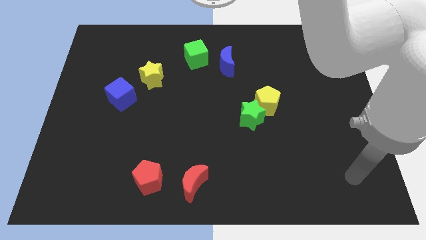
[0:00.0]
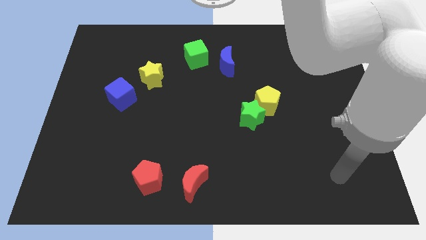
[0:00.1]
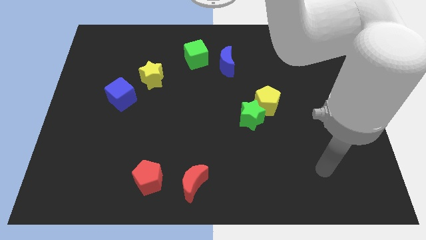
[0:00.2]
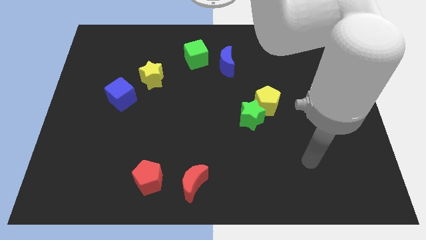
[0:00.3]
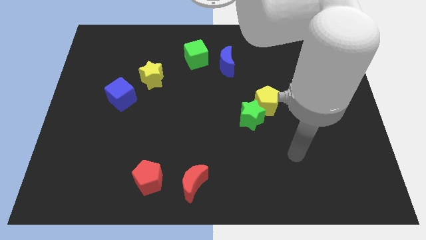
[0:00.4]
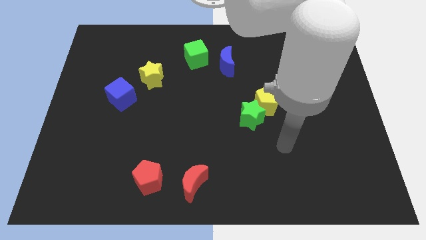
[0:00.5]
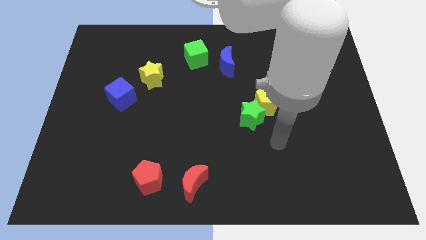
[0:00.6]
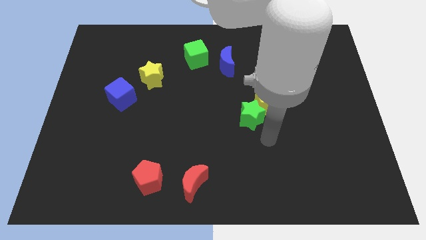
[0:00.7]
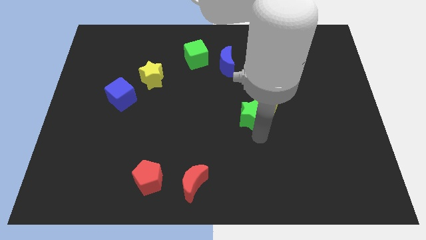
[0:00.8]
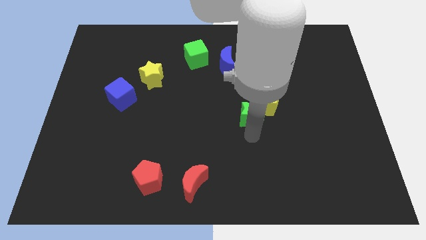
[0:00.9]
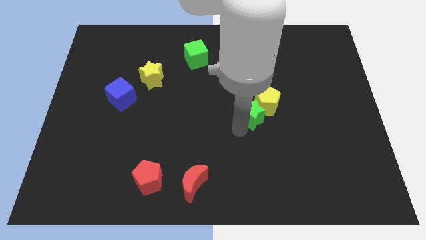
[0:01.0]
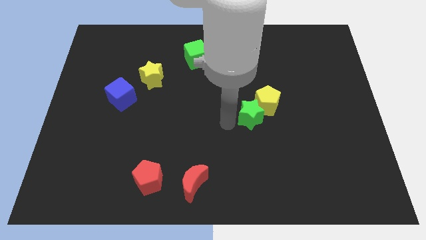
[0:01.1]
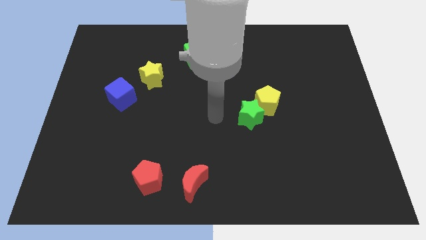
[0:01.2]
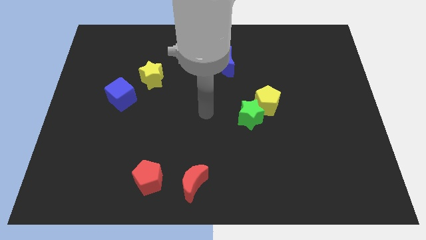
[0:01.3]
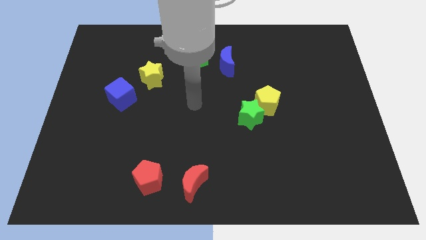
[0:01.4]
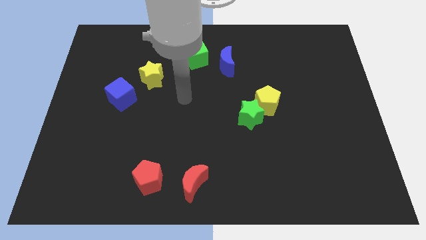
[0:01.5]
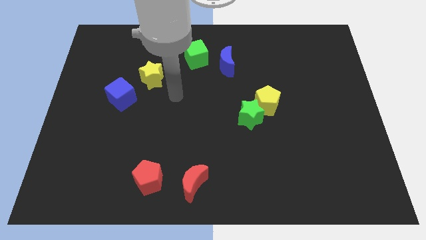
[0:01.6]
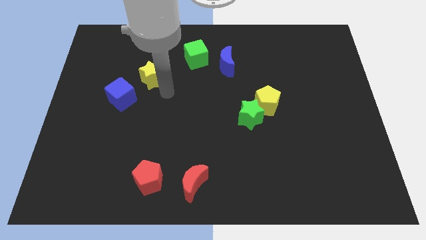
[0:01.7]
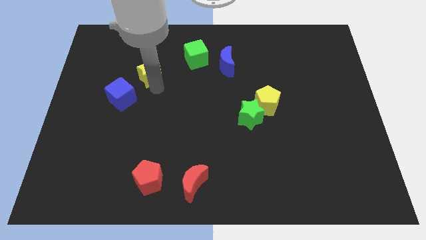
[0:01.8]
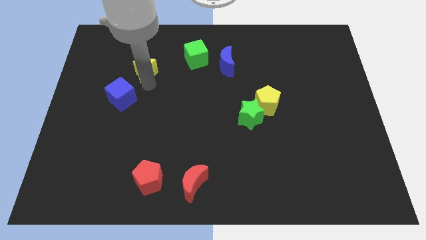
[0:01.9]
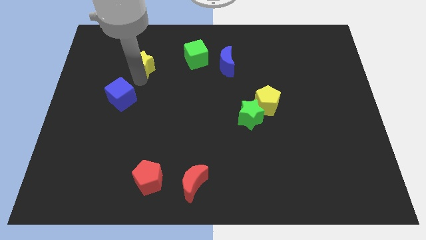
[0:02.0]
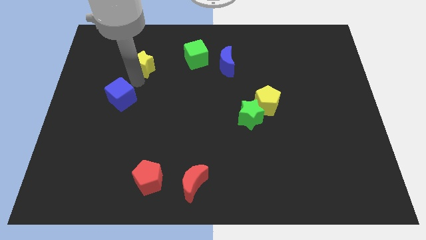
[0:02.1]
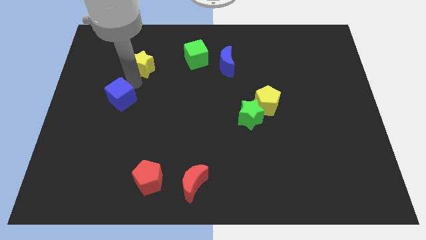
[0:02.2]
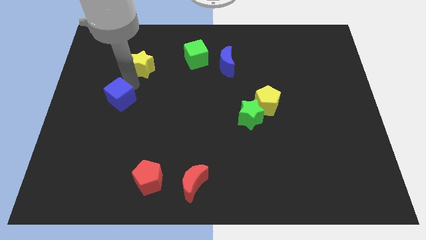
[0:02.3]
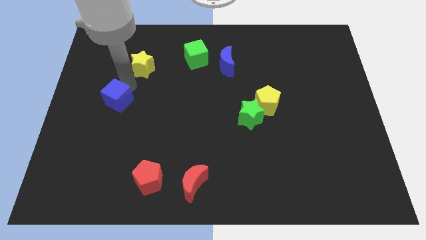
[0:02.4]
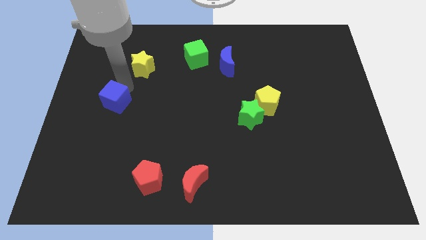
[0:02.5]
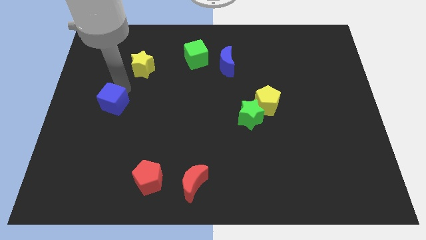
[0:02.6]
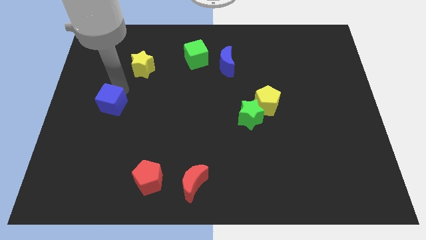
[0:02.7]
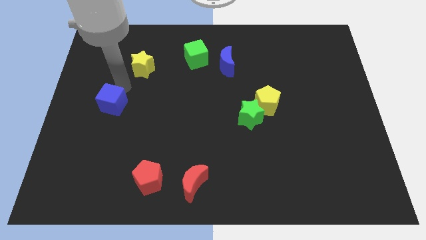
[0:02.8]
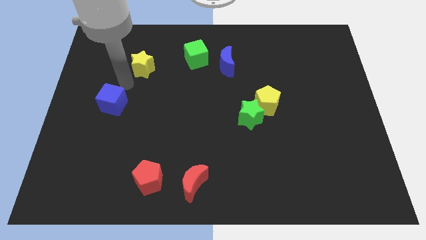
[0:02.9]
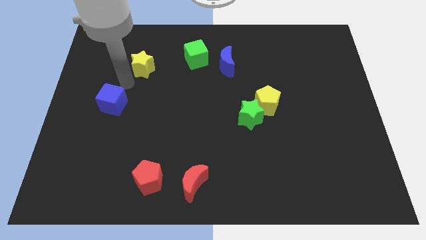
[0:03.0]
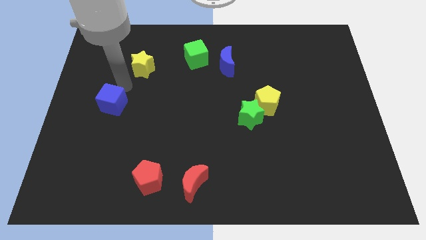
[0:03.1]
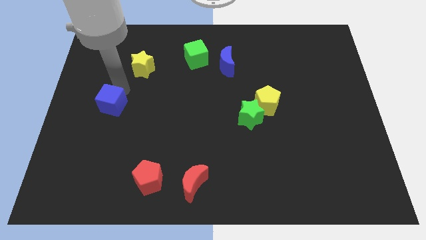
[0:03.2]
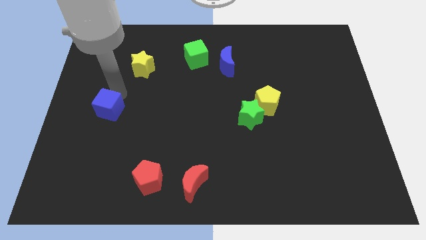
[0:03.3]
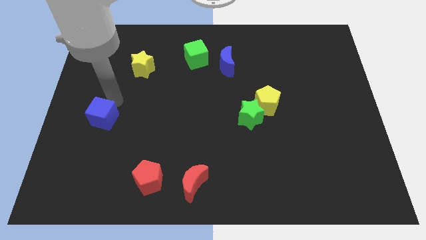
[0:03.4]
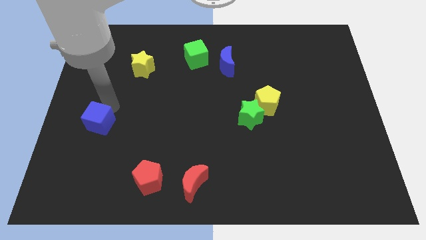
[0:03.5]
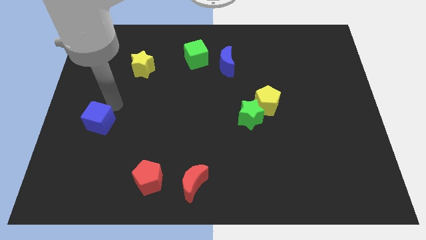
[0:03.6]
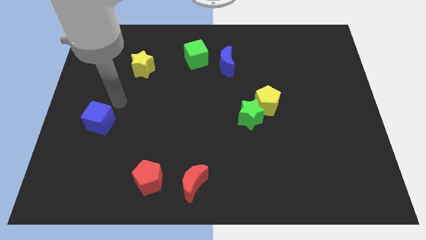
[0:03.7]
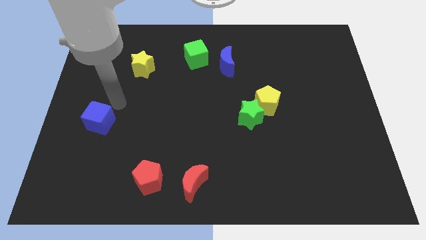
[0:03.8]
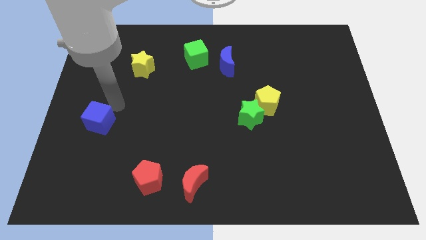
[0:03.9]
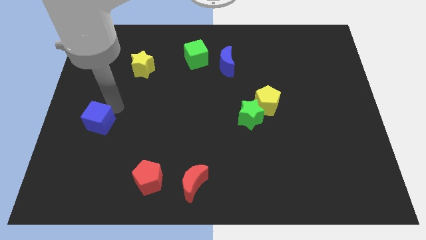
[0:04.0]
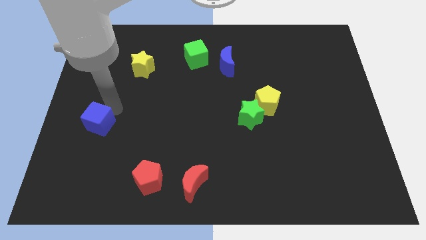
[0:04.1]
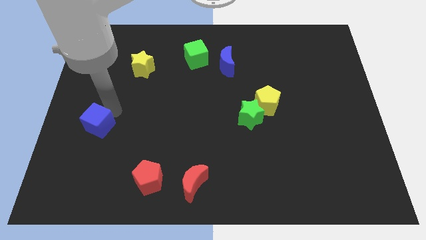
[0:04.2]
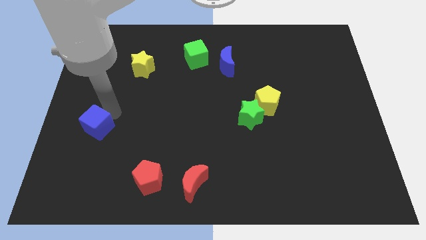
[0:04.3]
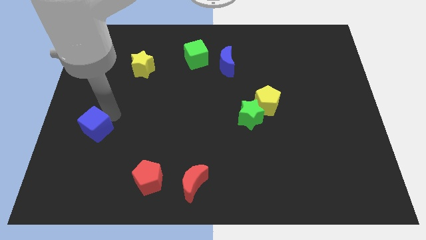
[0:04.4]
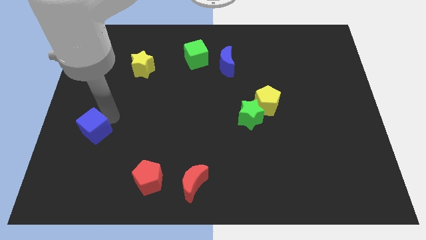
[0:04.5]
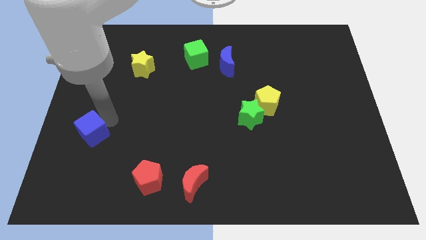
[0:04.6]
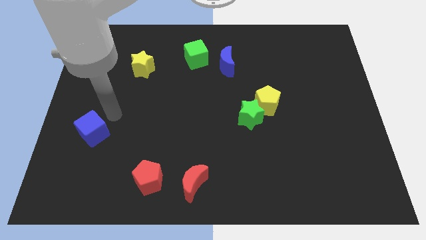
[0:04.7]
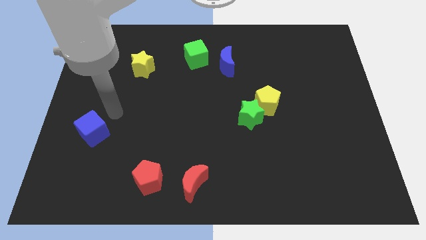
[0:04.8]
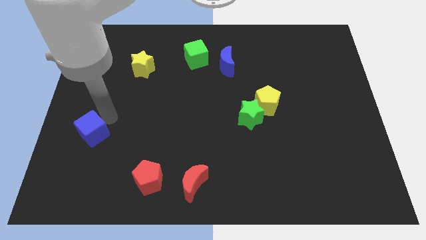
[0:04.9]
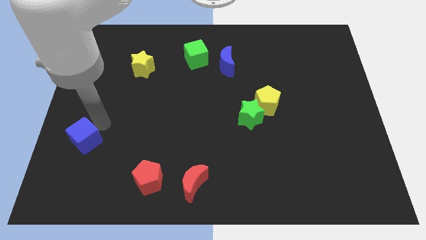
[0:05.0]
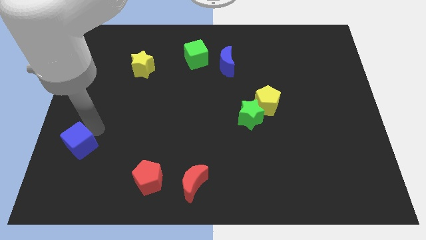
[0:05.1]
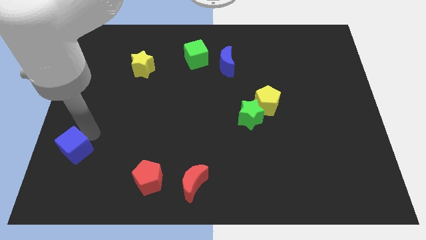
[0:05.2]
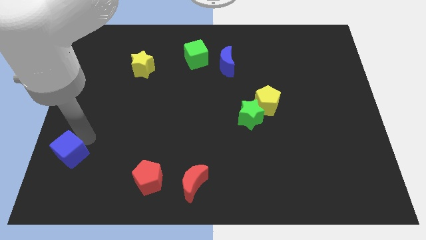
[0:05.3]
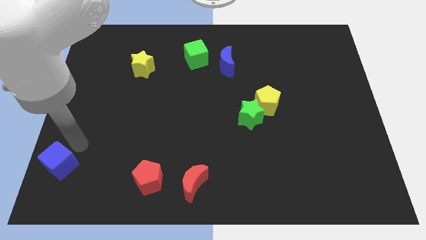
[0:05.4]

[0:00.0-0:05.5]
put the blue cube to the bottom left corner

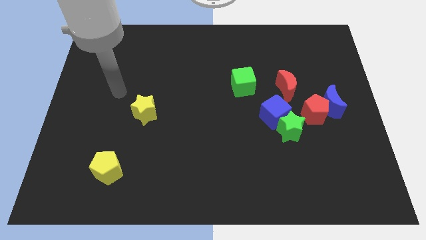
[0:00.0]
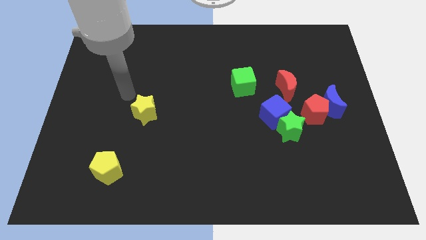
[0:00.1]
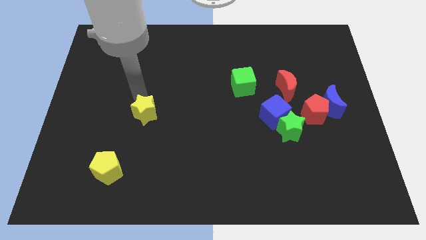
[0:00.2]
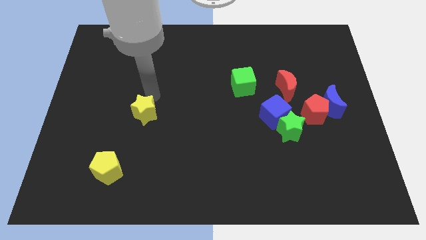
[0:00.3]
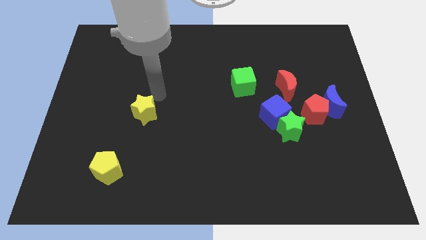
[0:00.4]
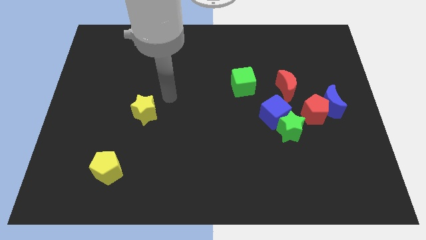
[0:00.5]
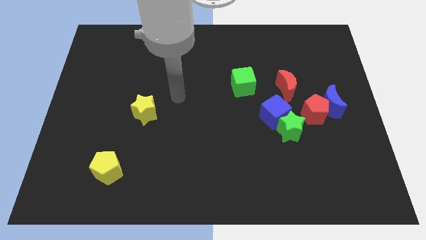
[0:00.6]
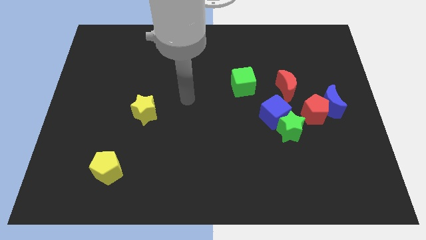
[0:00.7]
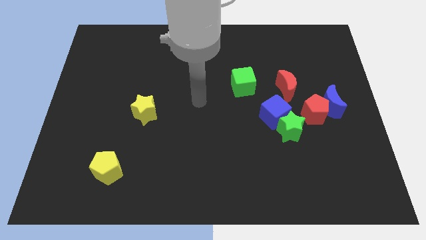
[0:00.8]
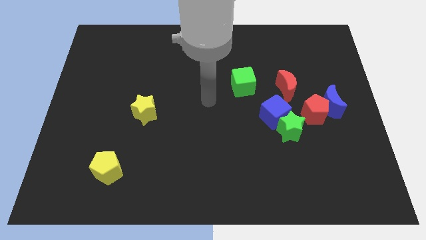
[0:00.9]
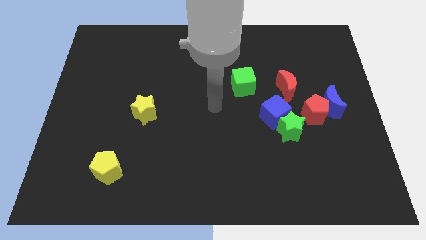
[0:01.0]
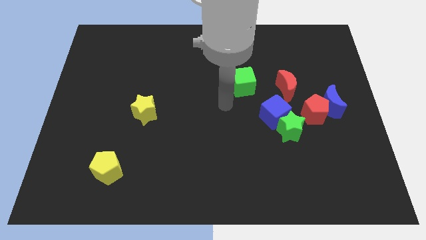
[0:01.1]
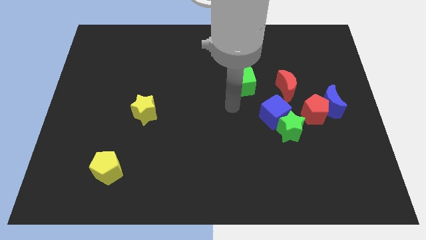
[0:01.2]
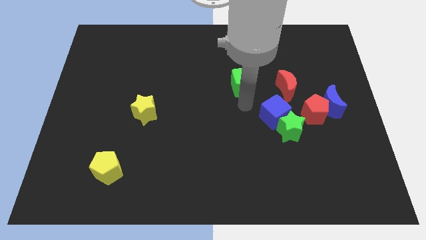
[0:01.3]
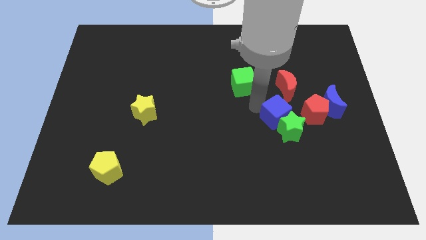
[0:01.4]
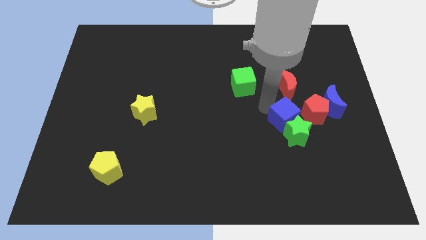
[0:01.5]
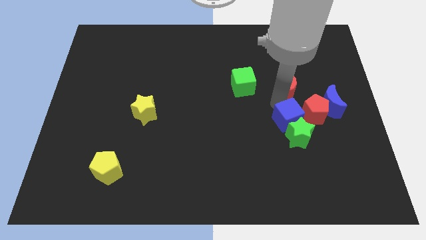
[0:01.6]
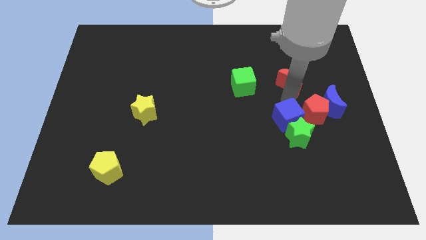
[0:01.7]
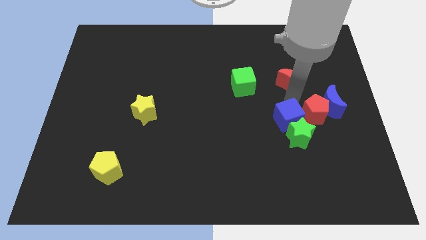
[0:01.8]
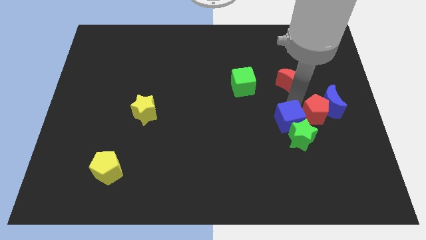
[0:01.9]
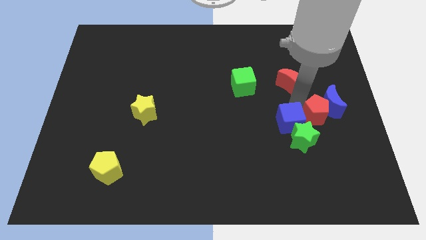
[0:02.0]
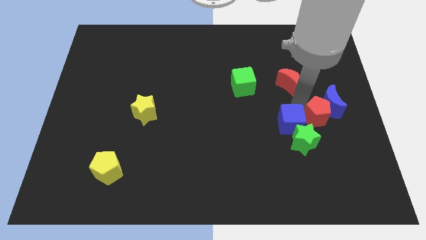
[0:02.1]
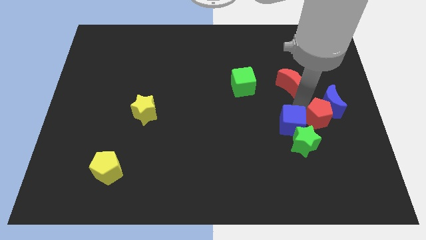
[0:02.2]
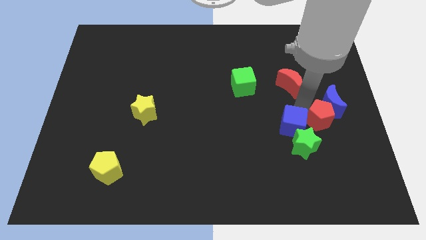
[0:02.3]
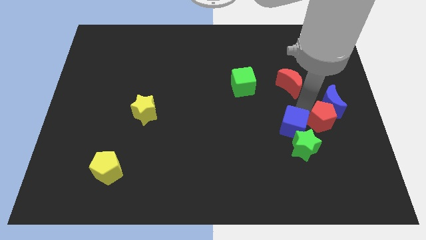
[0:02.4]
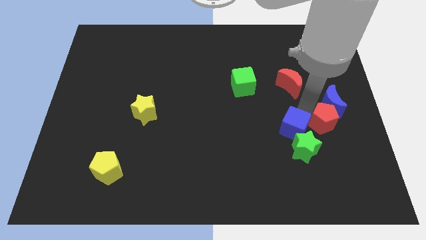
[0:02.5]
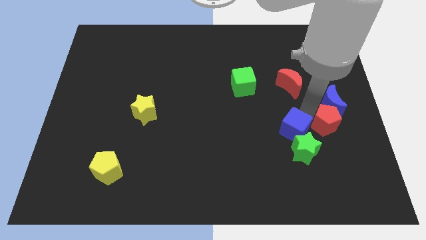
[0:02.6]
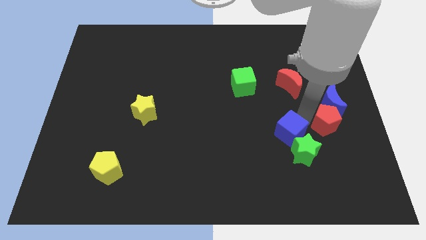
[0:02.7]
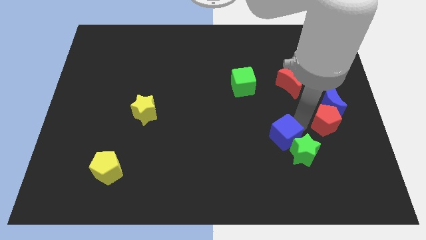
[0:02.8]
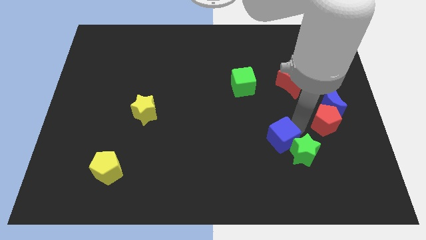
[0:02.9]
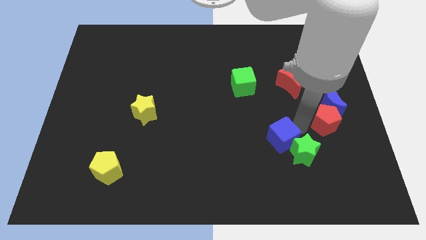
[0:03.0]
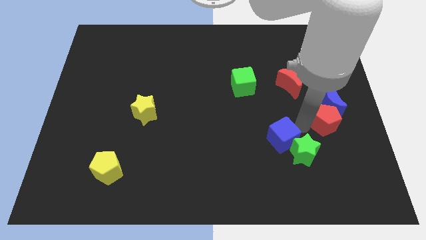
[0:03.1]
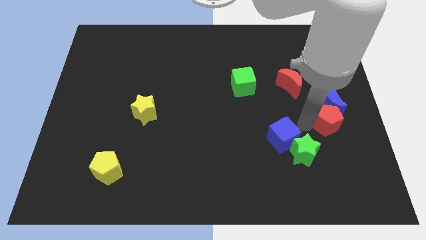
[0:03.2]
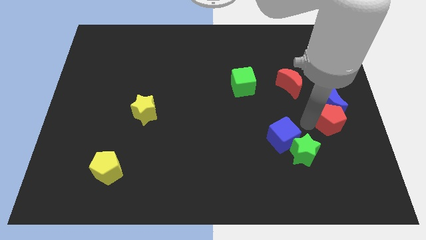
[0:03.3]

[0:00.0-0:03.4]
put the red pentagon to the right side
